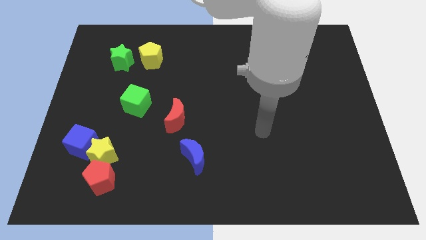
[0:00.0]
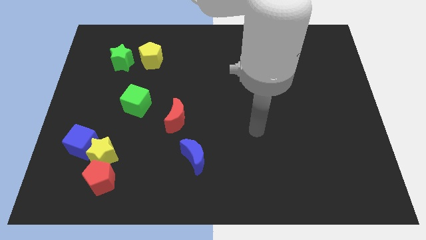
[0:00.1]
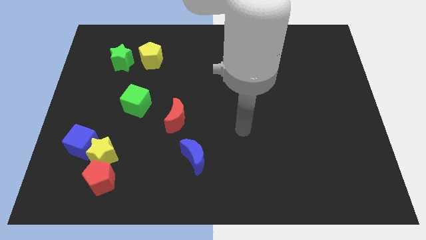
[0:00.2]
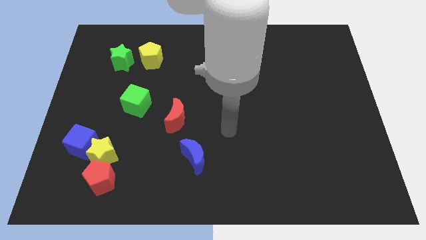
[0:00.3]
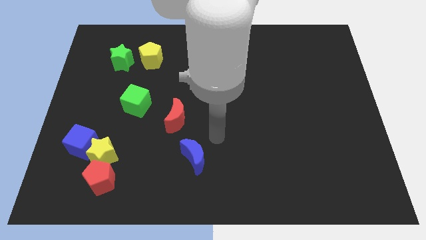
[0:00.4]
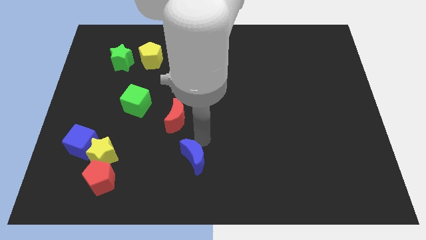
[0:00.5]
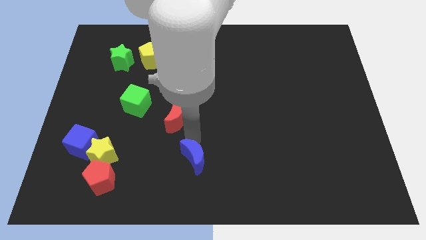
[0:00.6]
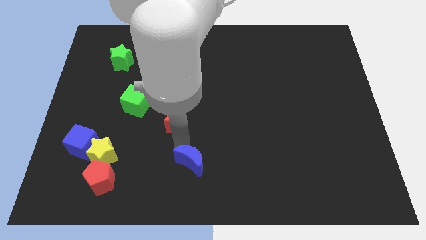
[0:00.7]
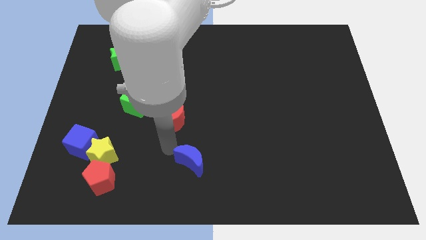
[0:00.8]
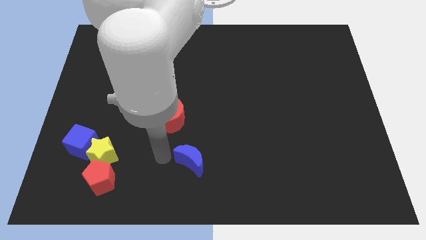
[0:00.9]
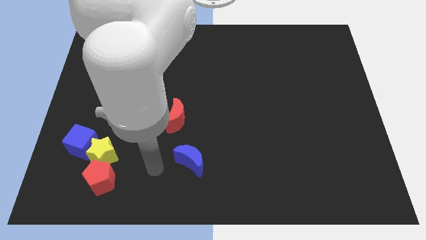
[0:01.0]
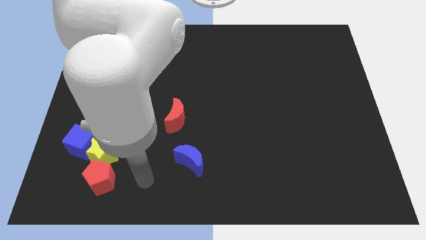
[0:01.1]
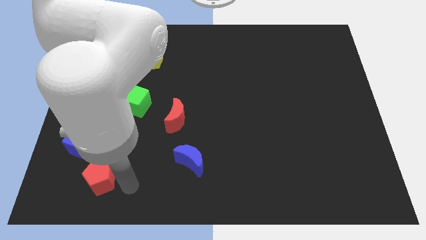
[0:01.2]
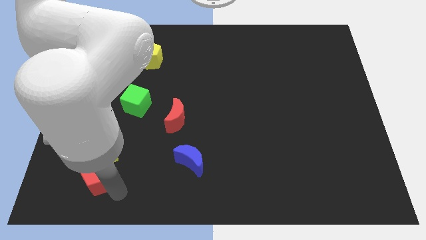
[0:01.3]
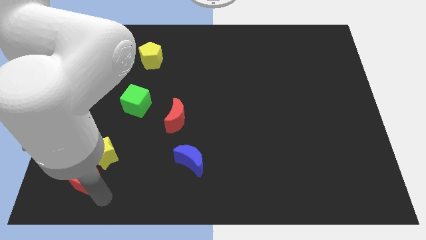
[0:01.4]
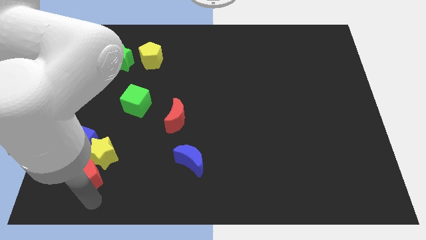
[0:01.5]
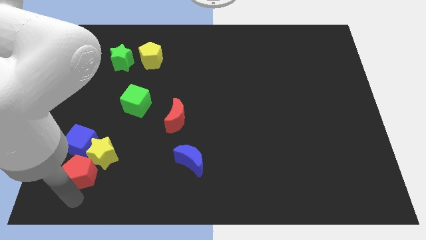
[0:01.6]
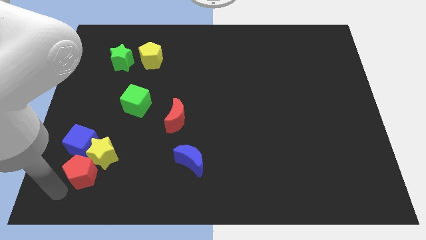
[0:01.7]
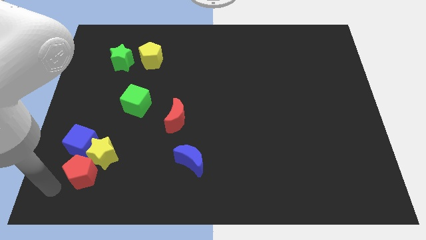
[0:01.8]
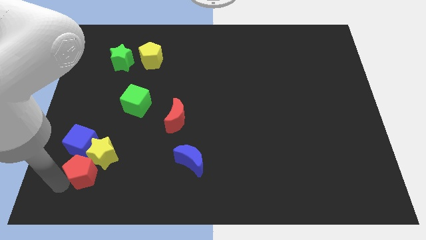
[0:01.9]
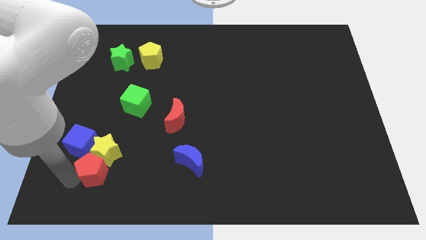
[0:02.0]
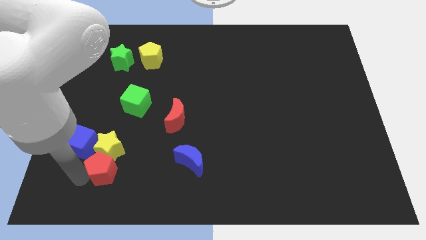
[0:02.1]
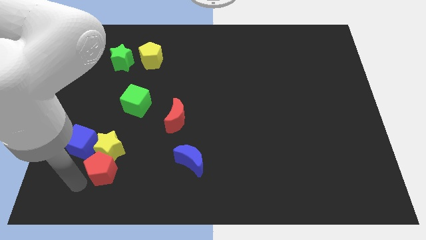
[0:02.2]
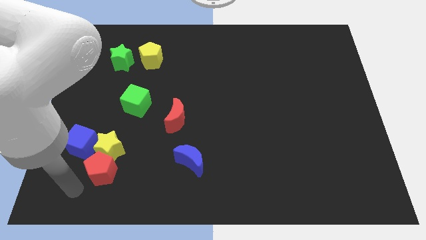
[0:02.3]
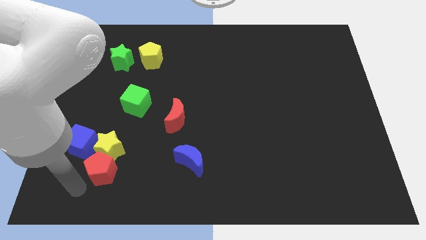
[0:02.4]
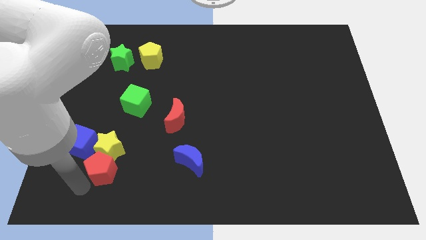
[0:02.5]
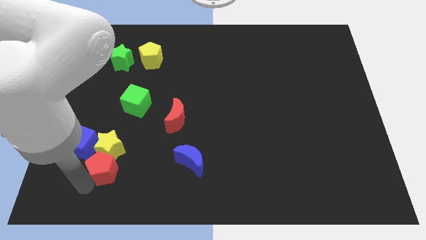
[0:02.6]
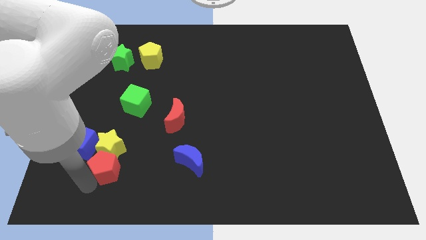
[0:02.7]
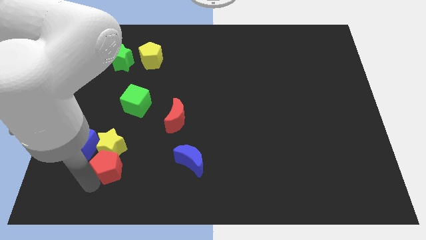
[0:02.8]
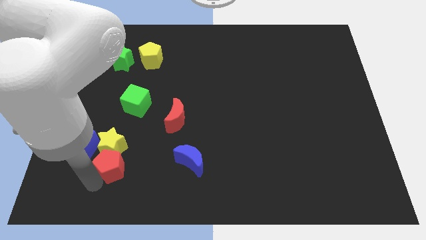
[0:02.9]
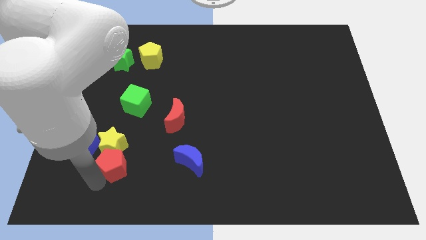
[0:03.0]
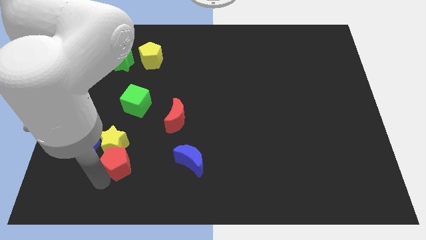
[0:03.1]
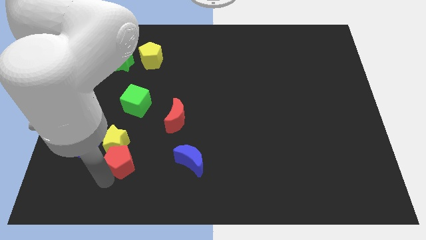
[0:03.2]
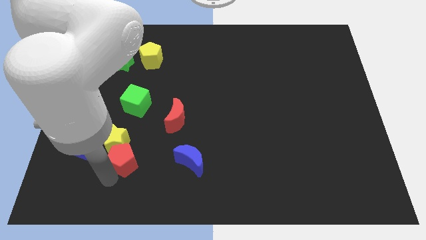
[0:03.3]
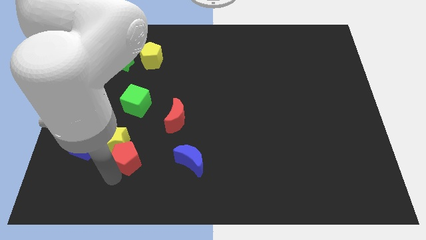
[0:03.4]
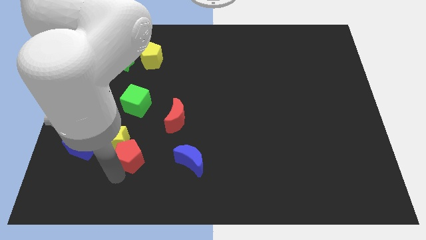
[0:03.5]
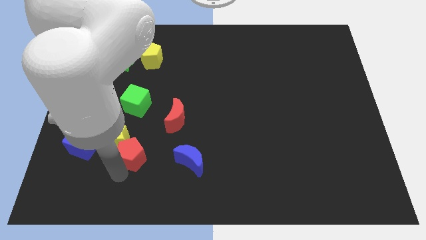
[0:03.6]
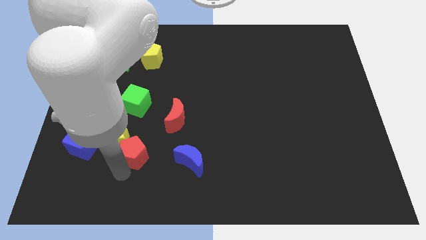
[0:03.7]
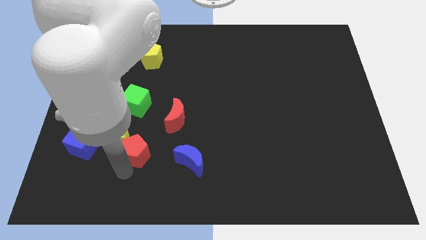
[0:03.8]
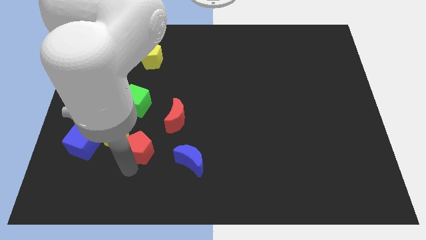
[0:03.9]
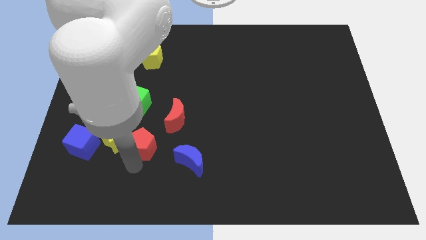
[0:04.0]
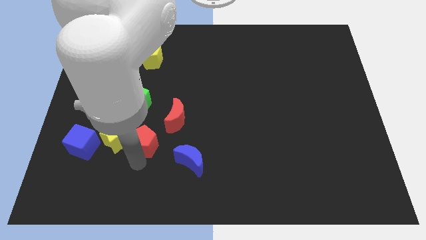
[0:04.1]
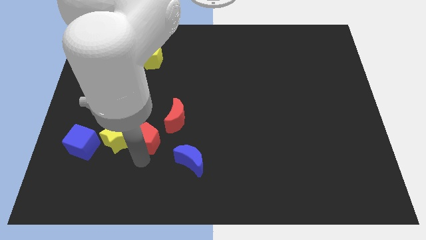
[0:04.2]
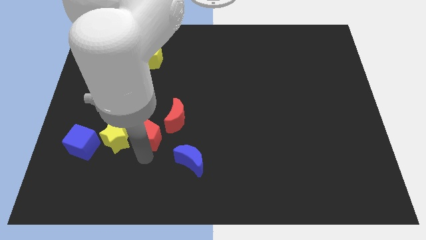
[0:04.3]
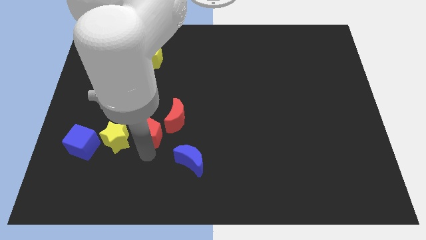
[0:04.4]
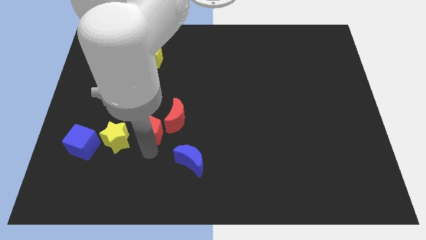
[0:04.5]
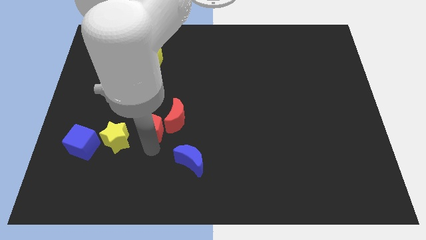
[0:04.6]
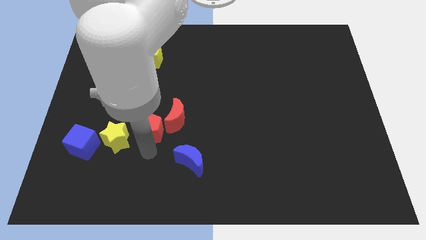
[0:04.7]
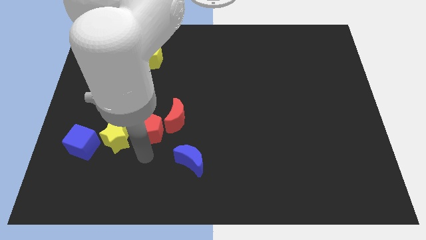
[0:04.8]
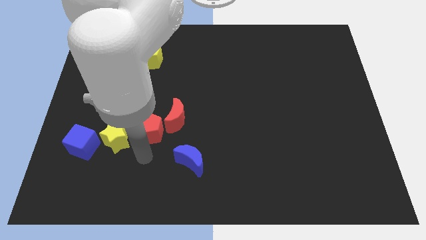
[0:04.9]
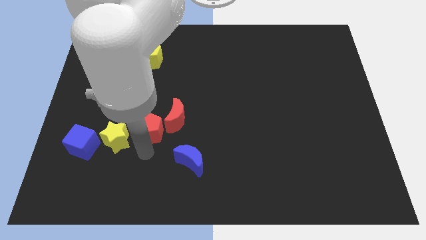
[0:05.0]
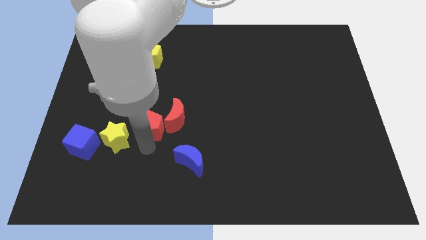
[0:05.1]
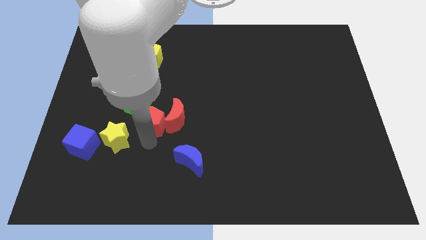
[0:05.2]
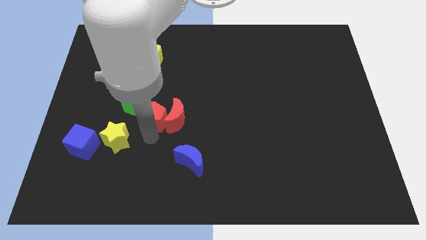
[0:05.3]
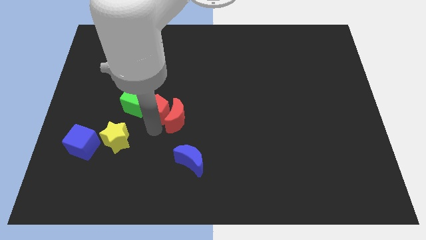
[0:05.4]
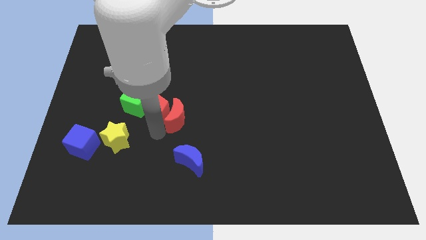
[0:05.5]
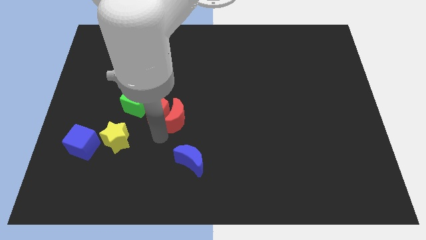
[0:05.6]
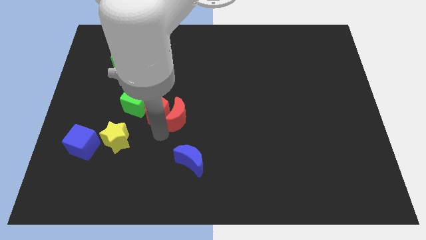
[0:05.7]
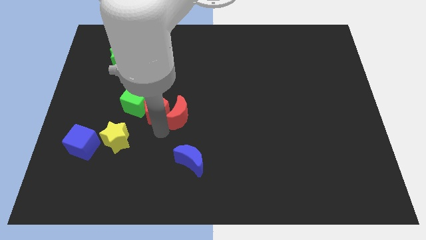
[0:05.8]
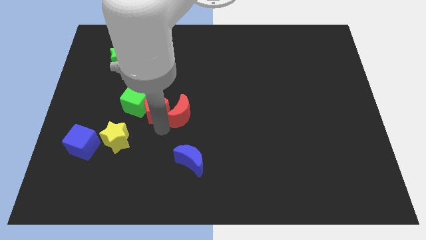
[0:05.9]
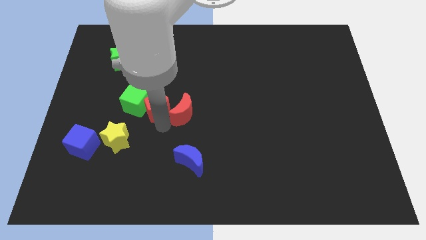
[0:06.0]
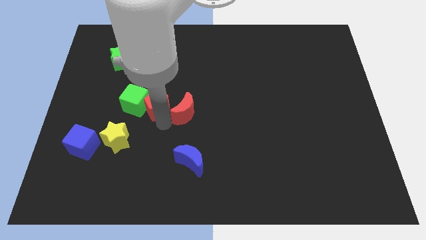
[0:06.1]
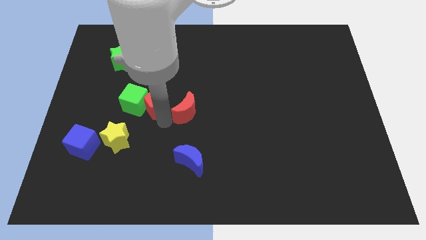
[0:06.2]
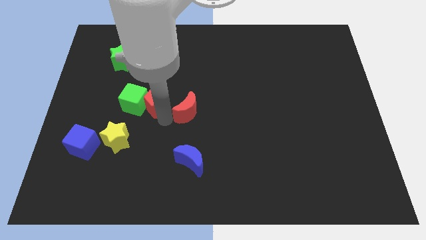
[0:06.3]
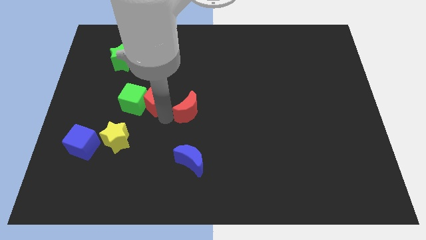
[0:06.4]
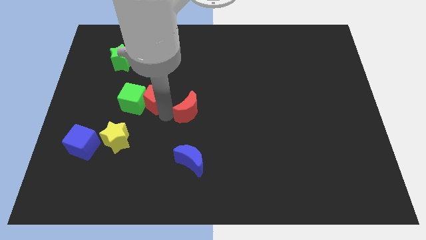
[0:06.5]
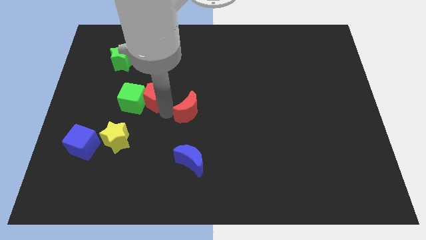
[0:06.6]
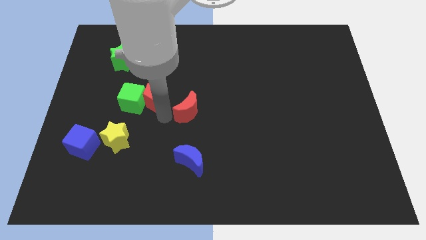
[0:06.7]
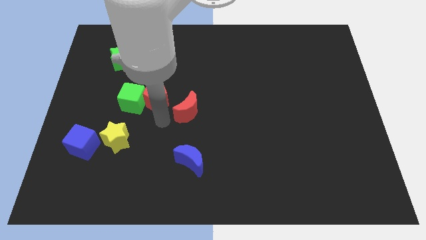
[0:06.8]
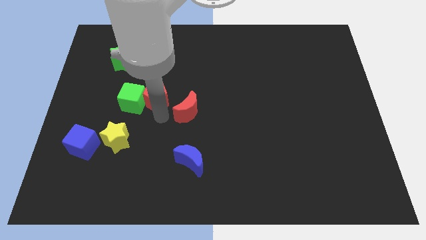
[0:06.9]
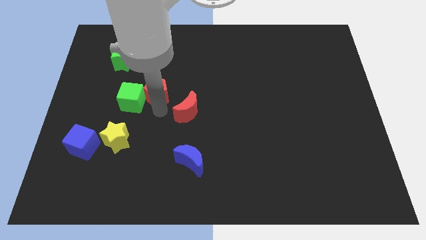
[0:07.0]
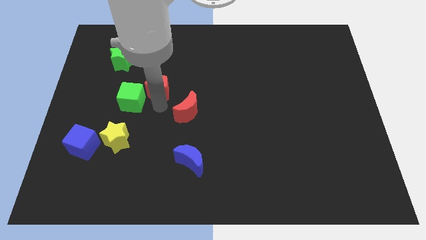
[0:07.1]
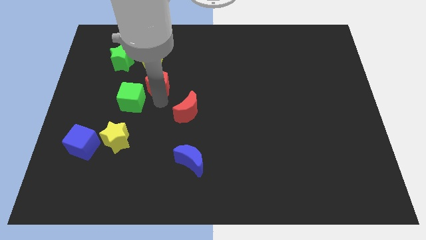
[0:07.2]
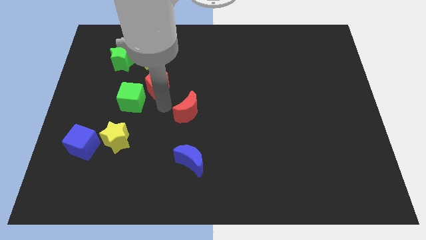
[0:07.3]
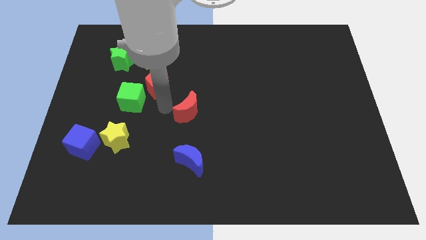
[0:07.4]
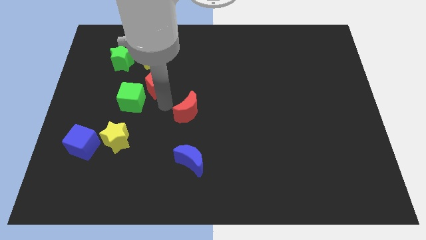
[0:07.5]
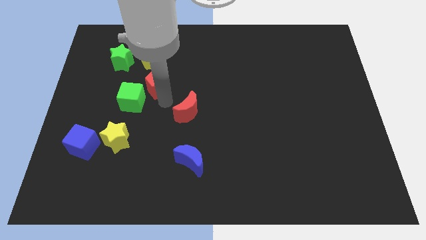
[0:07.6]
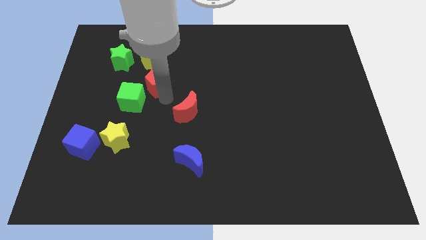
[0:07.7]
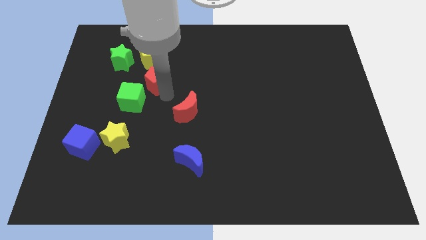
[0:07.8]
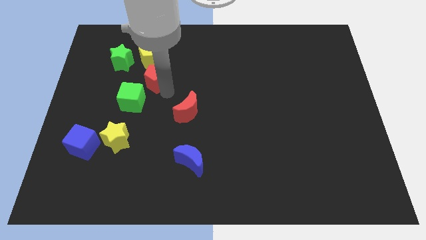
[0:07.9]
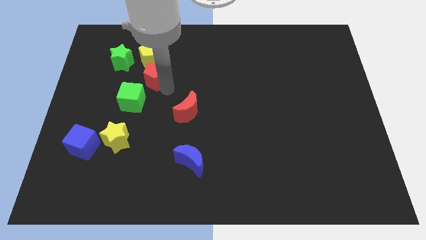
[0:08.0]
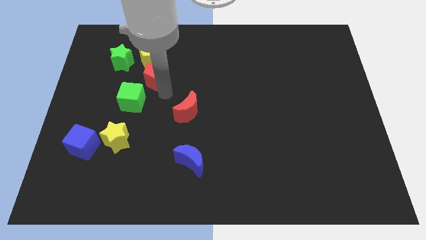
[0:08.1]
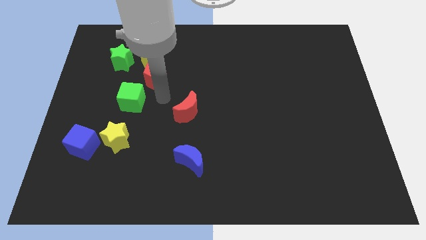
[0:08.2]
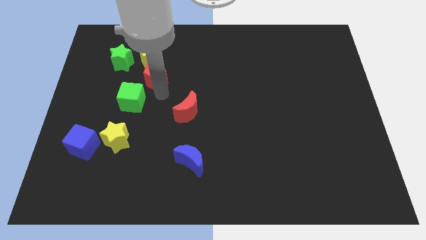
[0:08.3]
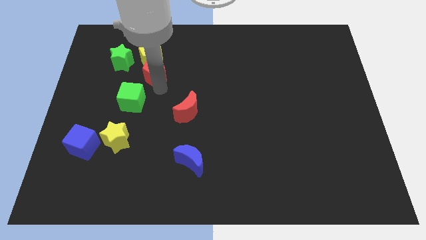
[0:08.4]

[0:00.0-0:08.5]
push the red pentagon next to the yellow pentagon
